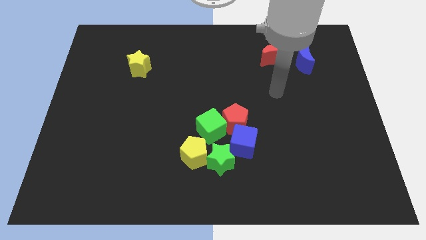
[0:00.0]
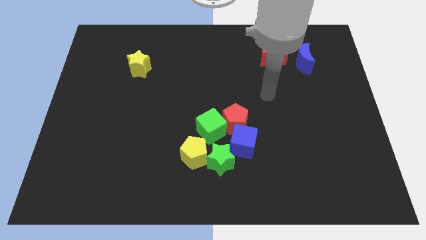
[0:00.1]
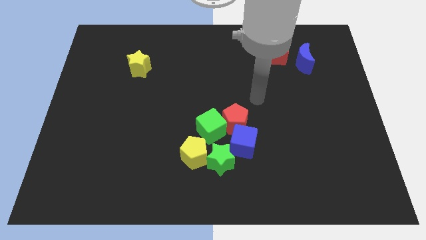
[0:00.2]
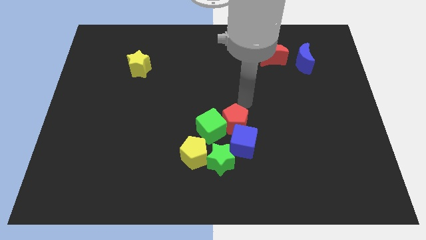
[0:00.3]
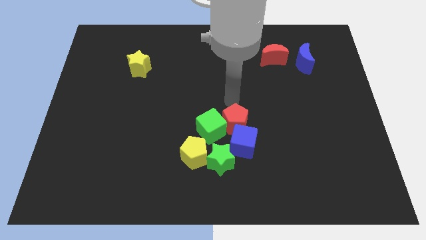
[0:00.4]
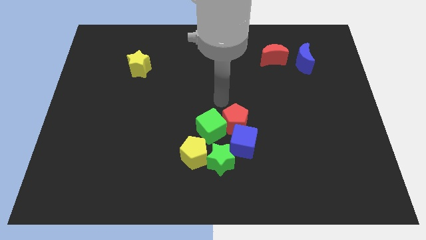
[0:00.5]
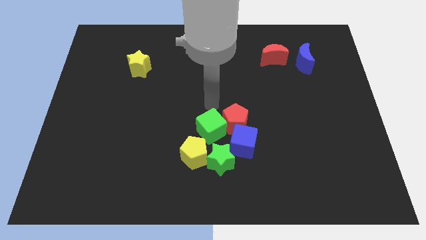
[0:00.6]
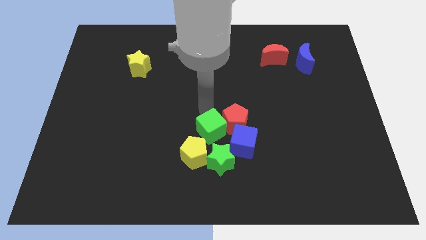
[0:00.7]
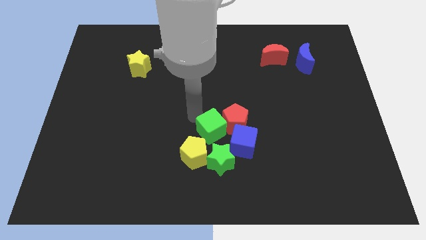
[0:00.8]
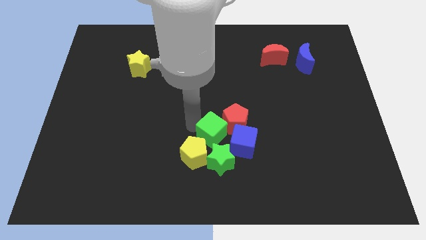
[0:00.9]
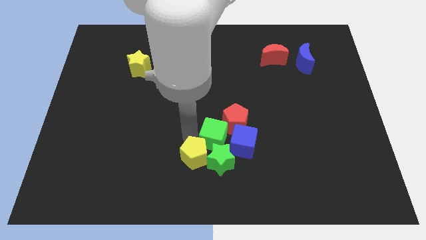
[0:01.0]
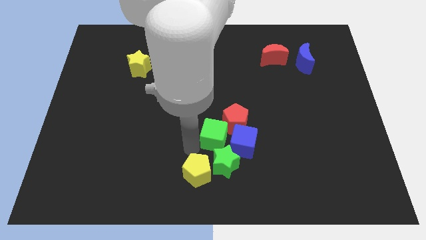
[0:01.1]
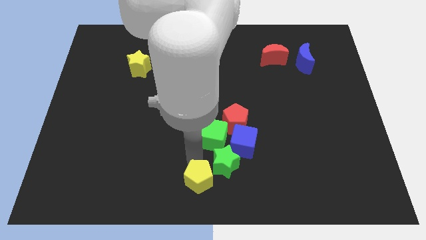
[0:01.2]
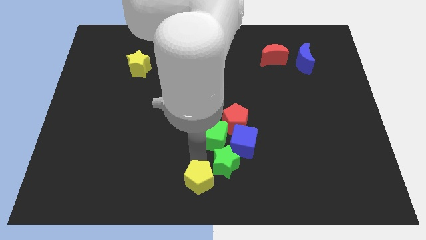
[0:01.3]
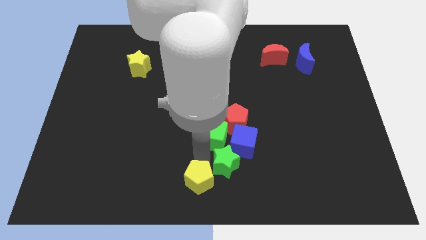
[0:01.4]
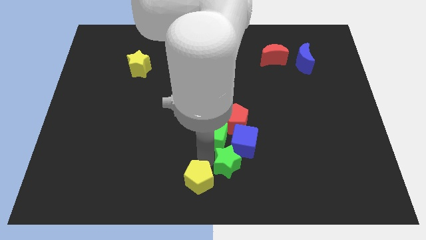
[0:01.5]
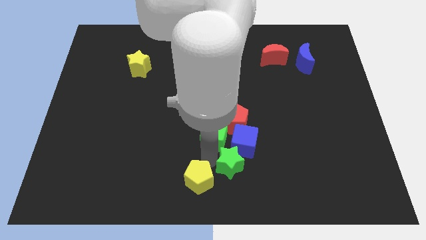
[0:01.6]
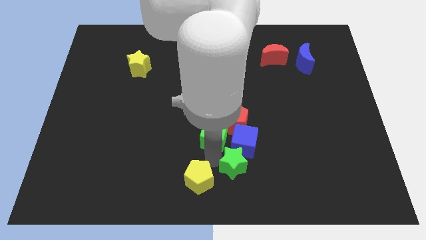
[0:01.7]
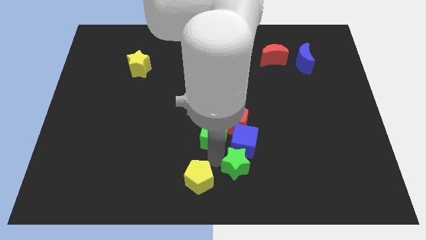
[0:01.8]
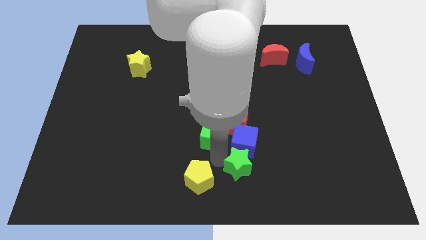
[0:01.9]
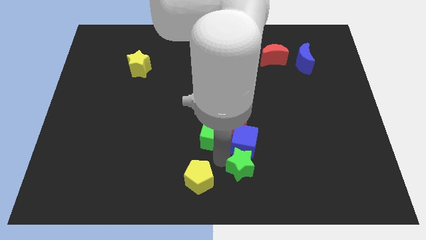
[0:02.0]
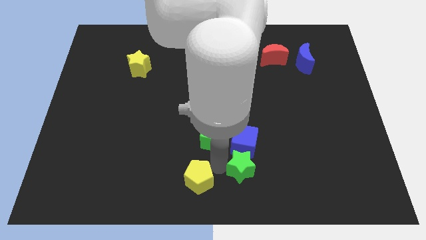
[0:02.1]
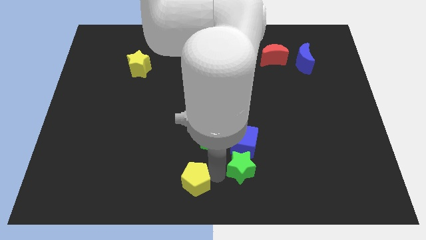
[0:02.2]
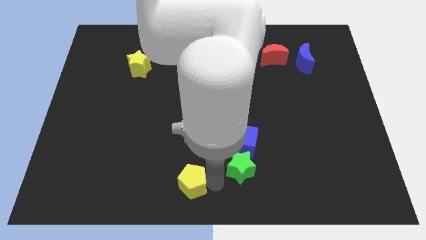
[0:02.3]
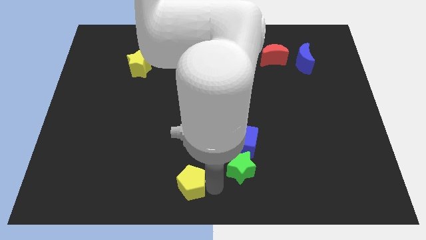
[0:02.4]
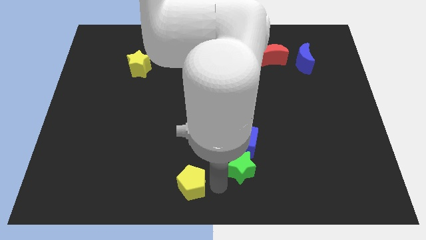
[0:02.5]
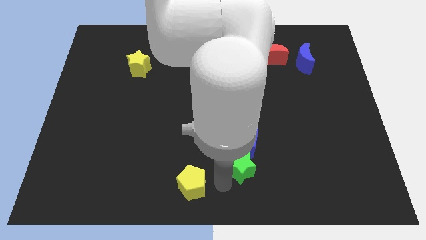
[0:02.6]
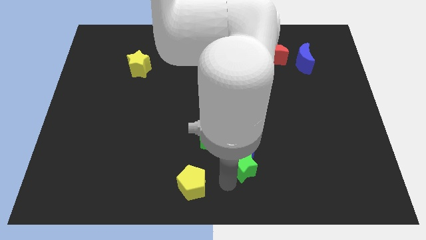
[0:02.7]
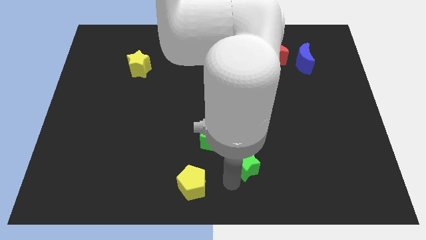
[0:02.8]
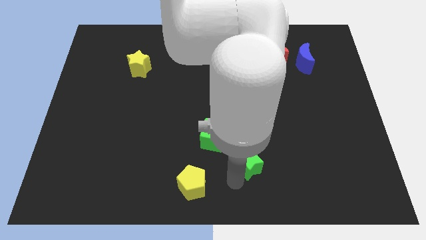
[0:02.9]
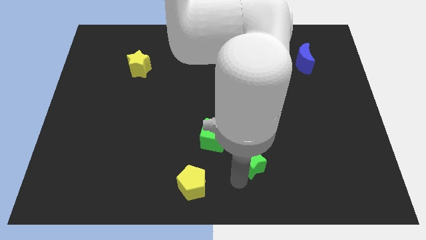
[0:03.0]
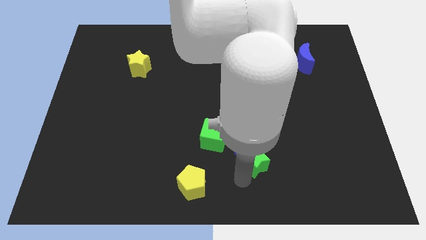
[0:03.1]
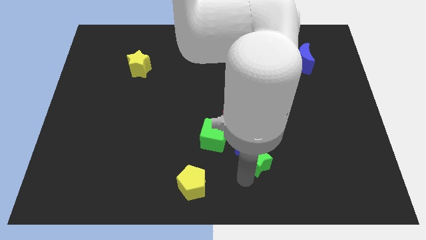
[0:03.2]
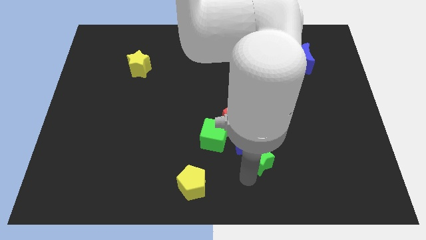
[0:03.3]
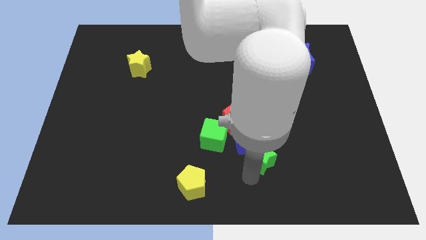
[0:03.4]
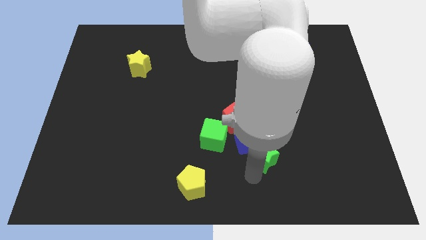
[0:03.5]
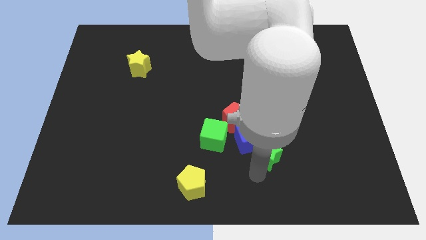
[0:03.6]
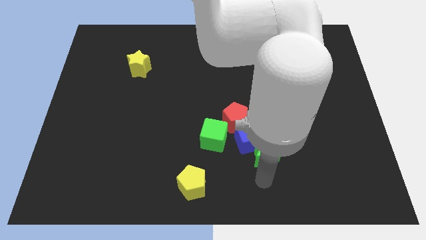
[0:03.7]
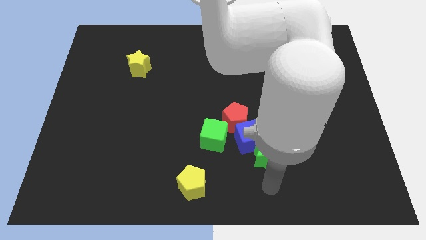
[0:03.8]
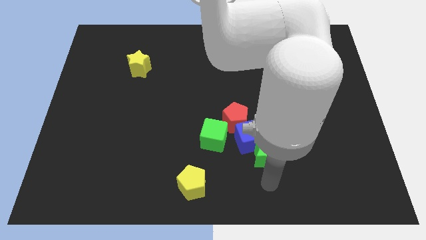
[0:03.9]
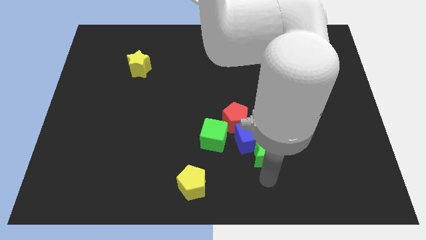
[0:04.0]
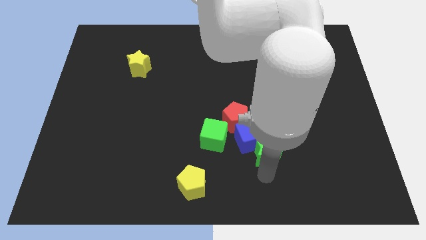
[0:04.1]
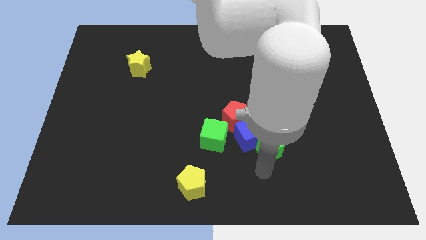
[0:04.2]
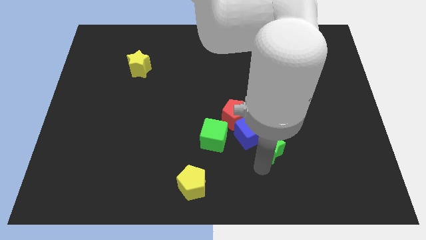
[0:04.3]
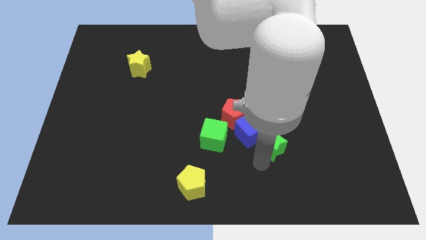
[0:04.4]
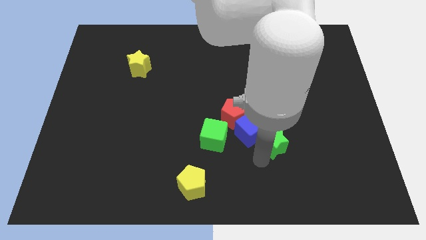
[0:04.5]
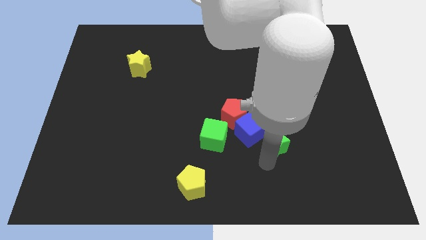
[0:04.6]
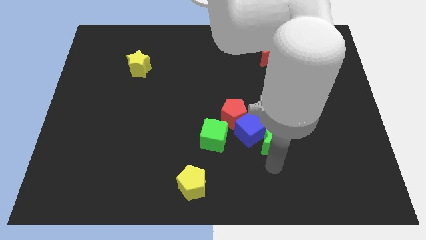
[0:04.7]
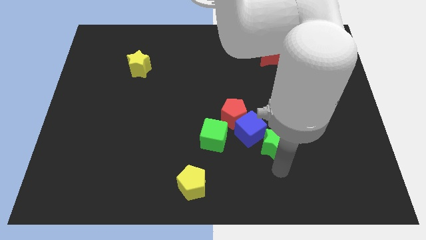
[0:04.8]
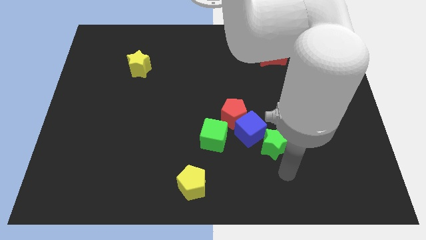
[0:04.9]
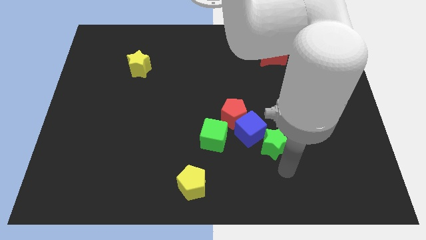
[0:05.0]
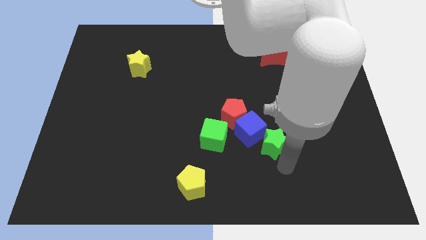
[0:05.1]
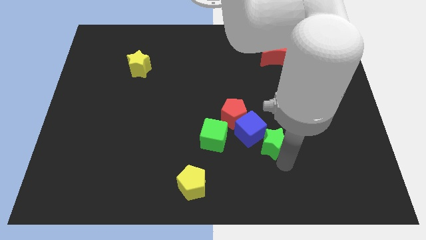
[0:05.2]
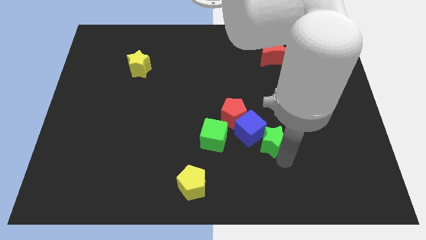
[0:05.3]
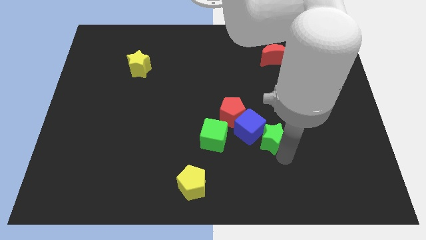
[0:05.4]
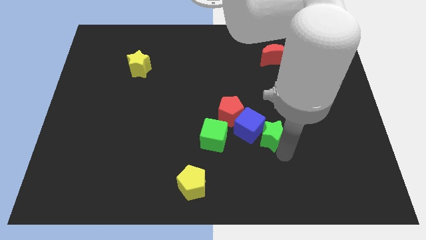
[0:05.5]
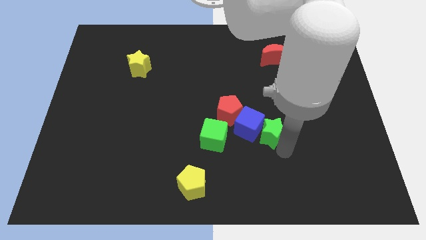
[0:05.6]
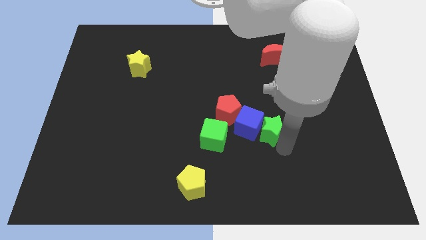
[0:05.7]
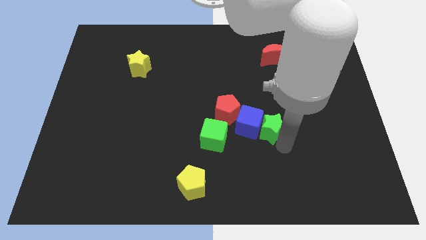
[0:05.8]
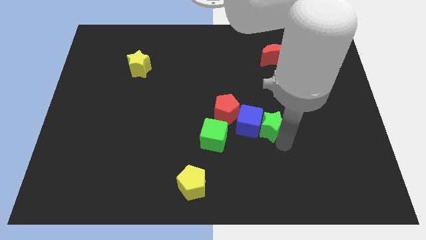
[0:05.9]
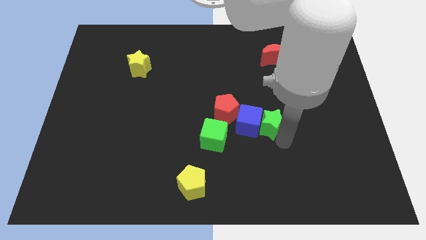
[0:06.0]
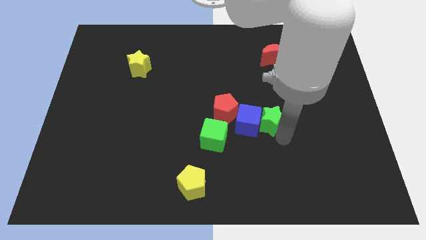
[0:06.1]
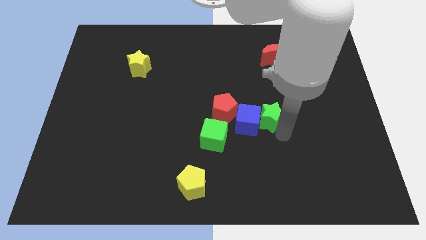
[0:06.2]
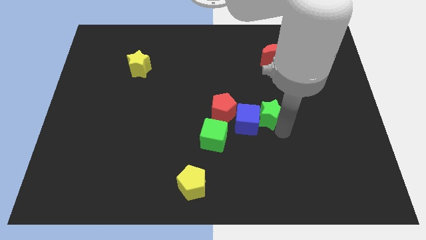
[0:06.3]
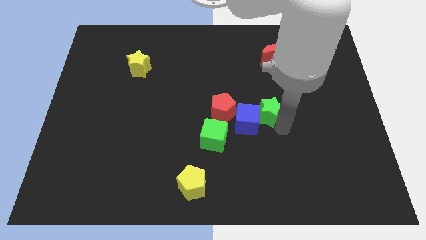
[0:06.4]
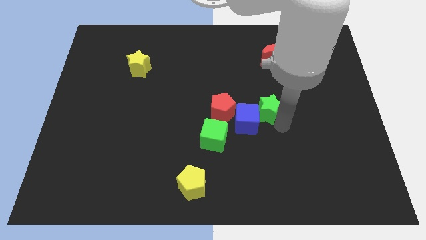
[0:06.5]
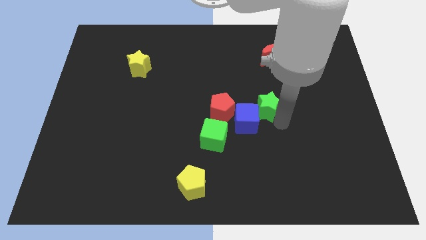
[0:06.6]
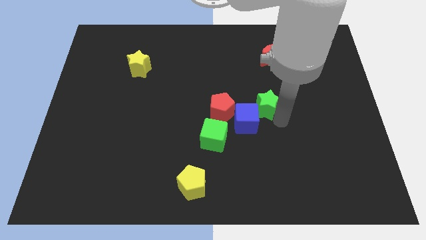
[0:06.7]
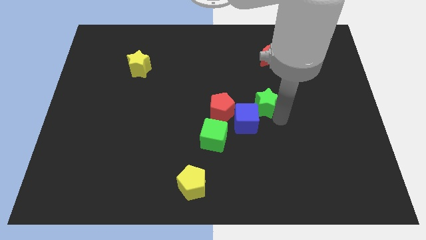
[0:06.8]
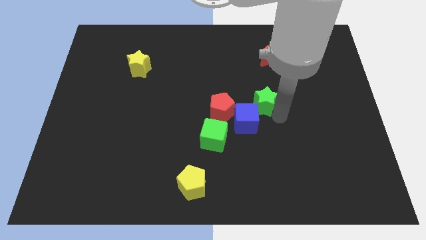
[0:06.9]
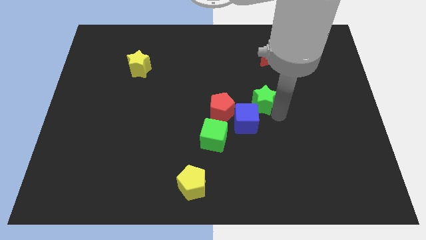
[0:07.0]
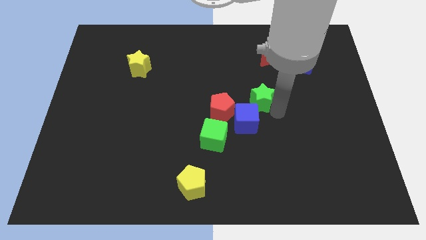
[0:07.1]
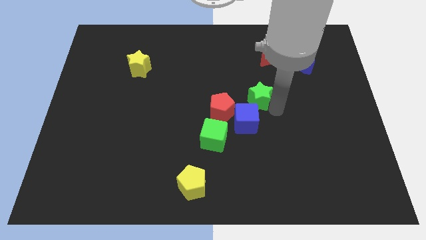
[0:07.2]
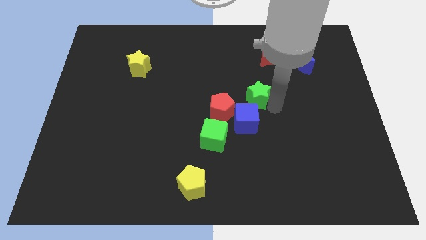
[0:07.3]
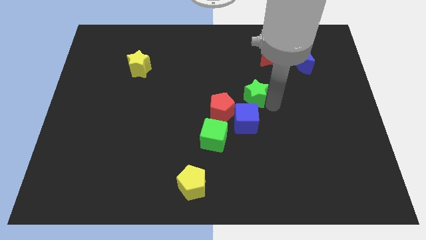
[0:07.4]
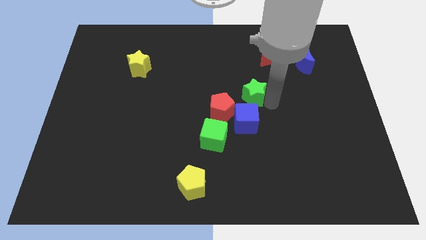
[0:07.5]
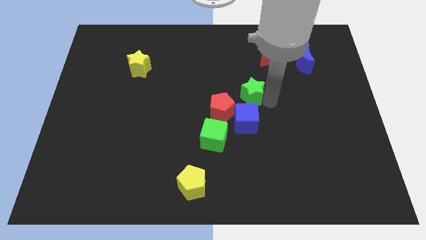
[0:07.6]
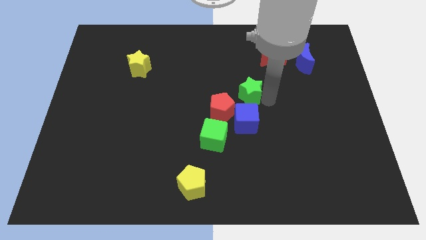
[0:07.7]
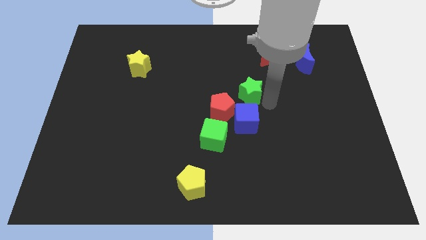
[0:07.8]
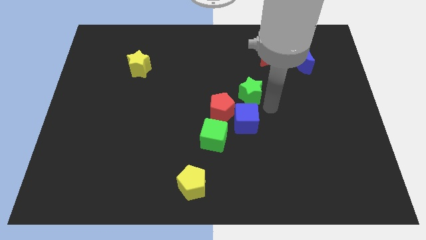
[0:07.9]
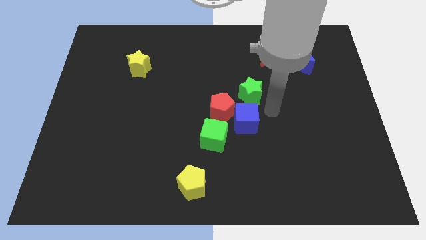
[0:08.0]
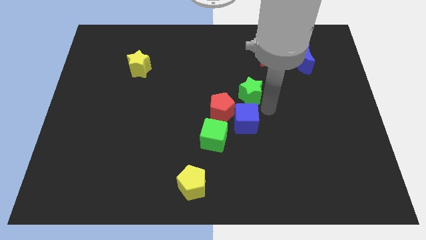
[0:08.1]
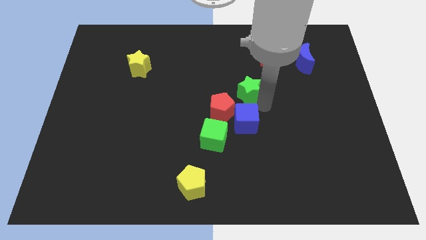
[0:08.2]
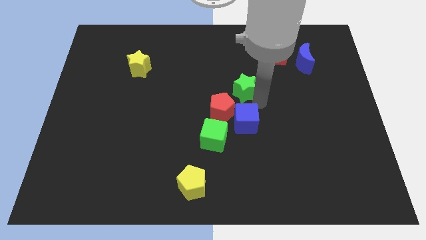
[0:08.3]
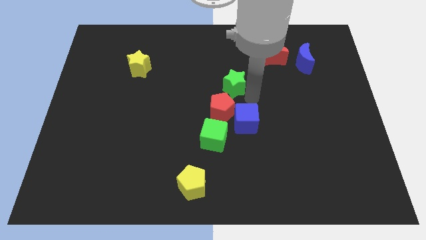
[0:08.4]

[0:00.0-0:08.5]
push the green star upwards
